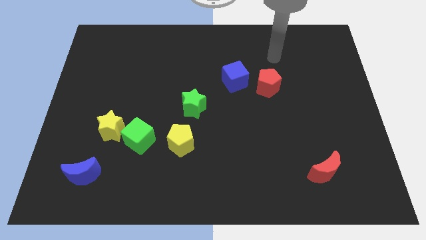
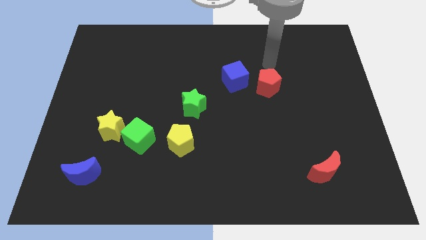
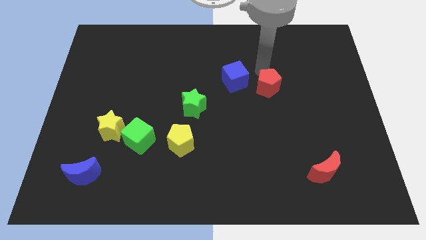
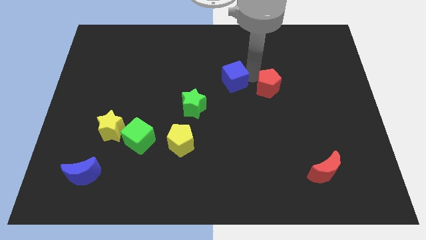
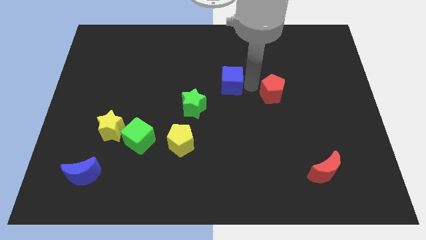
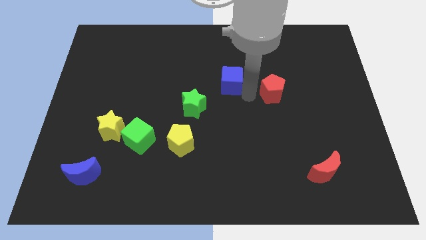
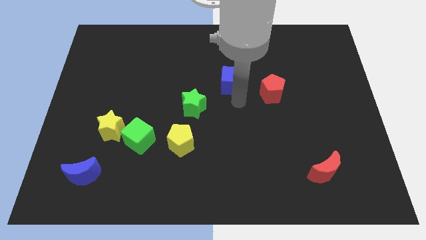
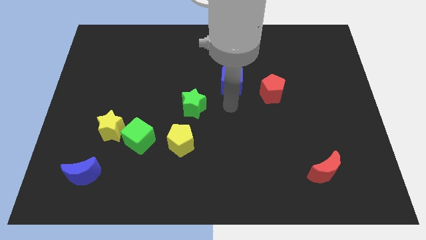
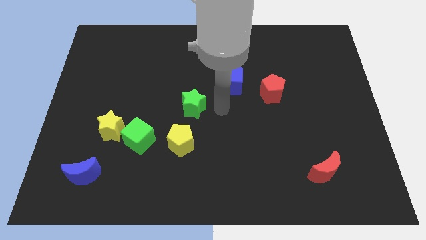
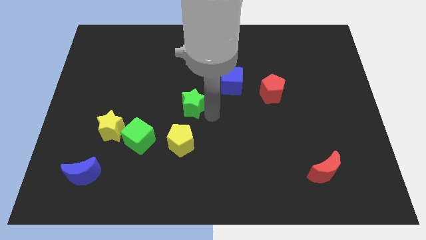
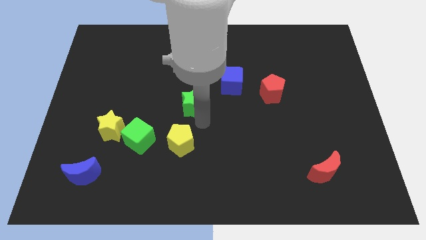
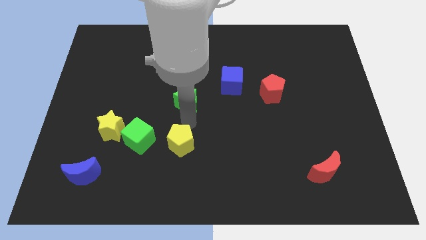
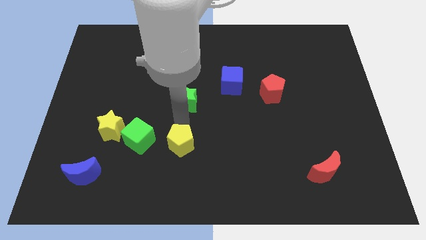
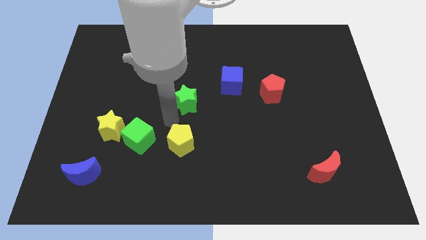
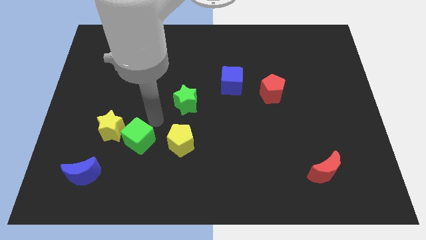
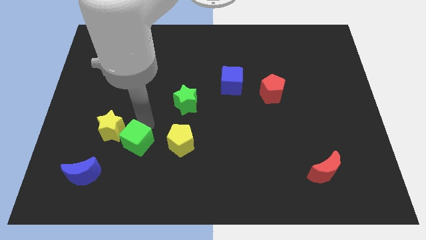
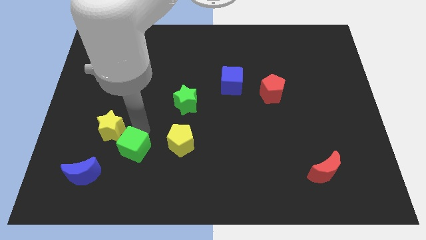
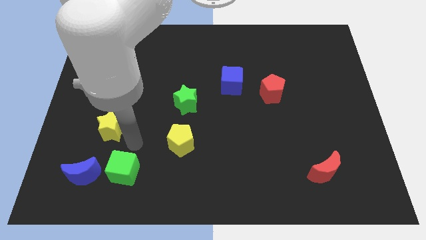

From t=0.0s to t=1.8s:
separate the yellow star from the green cube

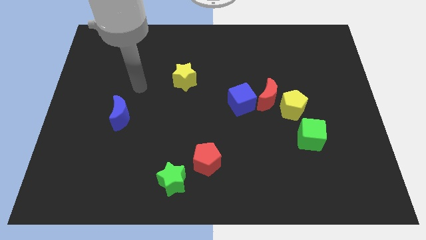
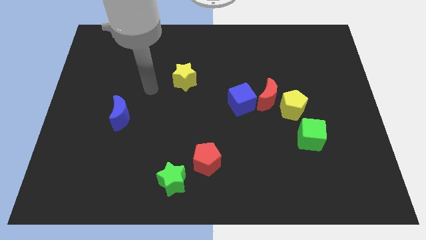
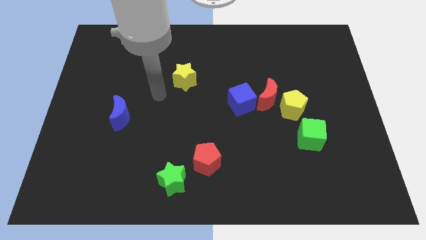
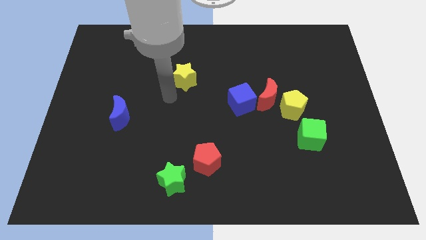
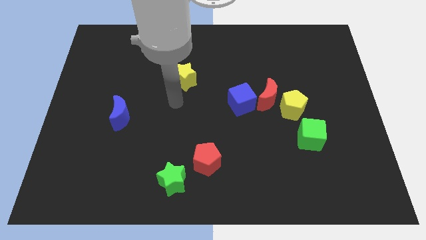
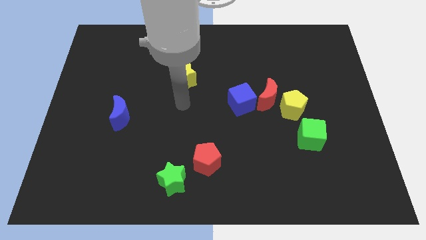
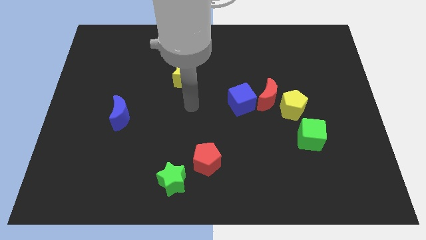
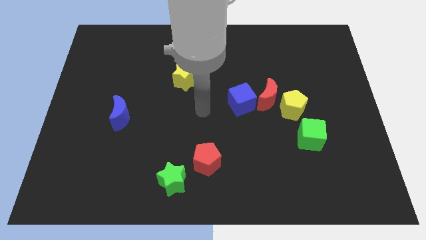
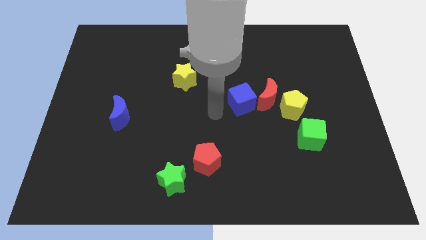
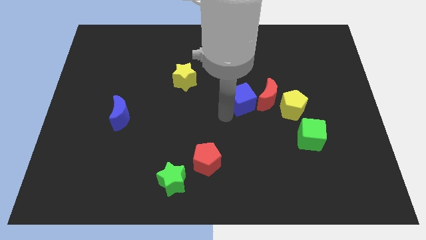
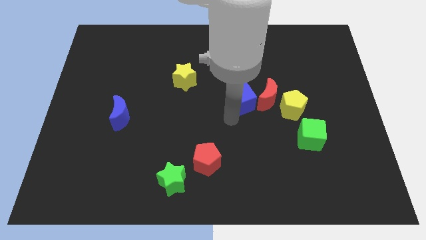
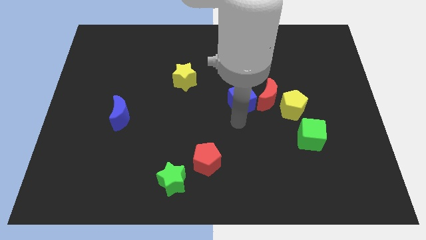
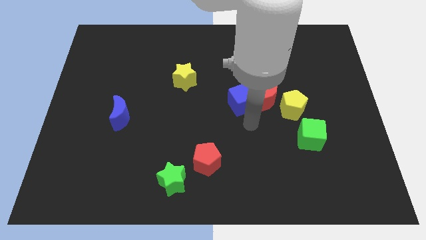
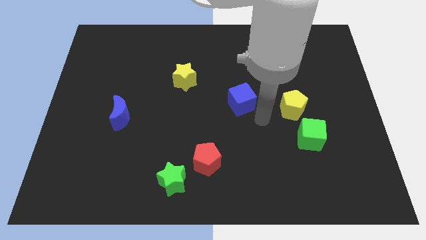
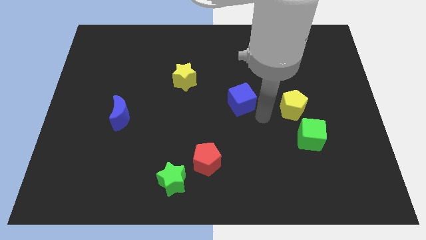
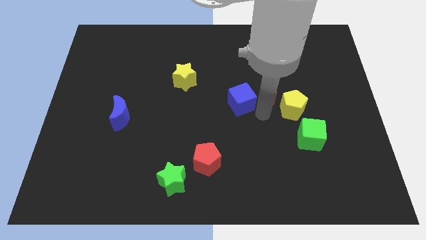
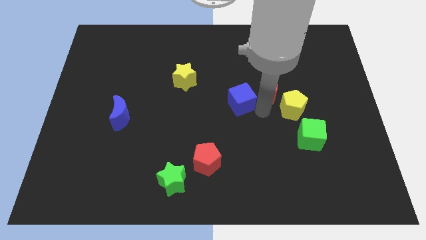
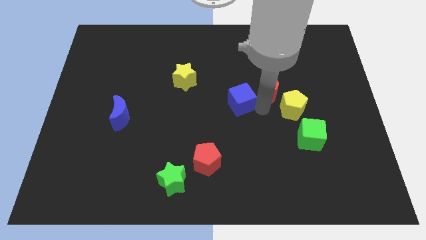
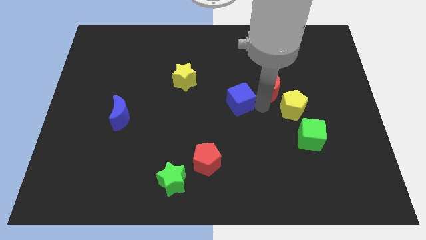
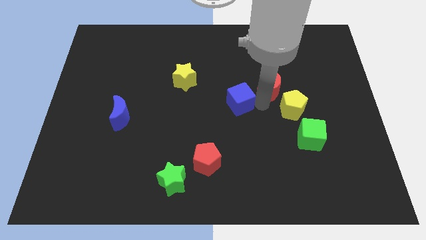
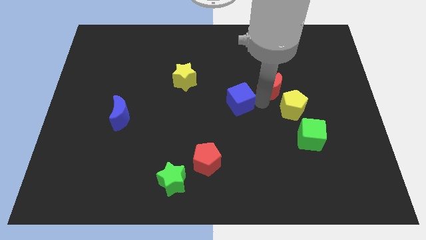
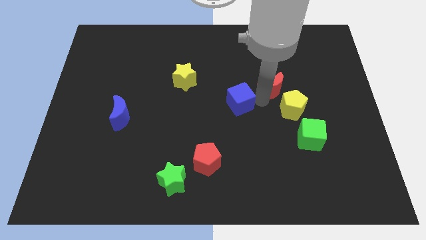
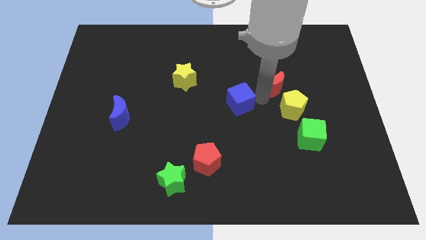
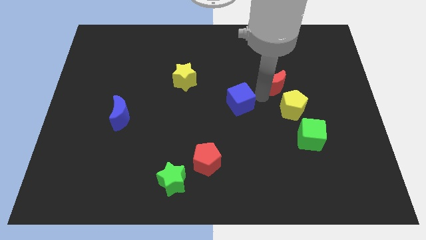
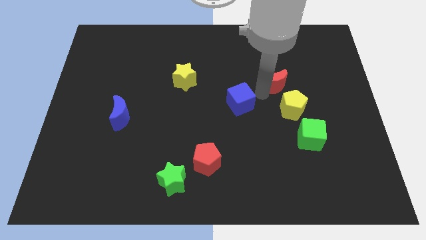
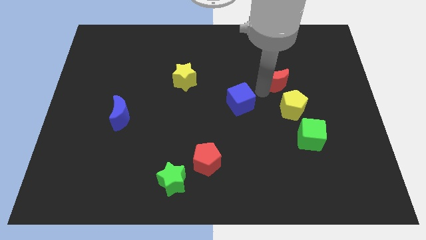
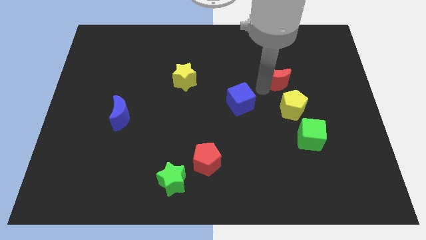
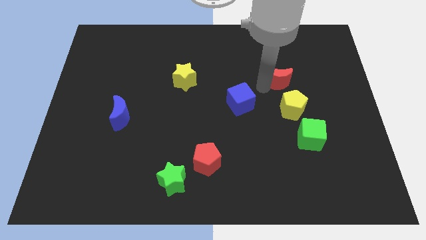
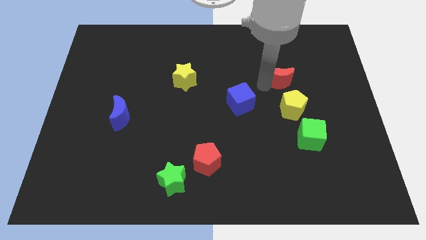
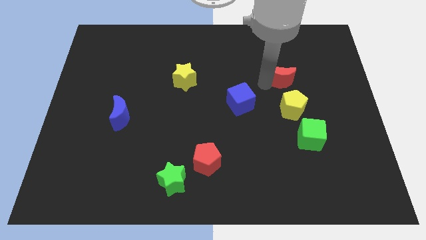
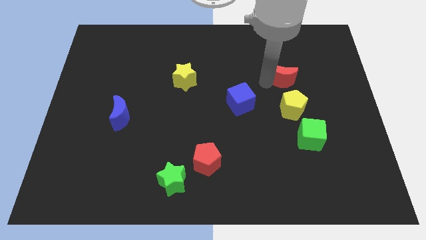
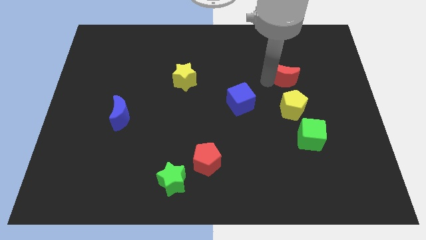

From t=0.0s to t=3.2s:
move the red moon away from the yellow pentagon and blue cube

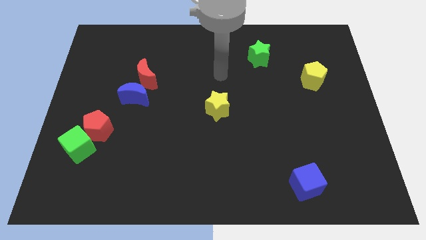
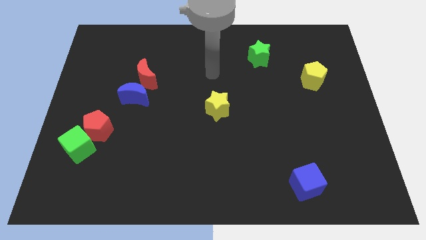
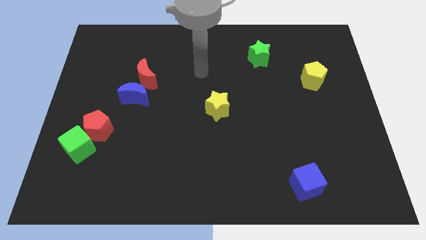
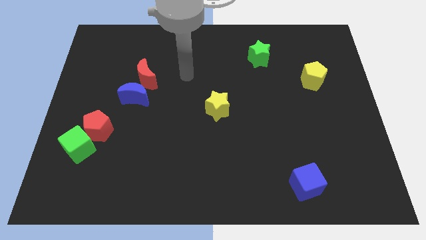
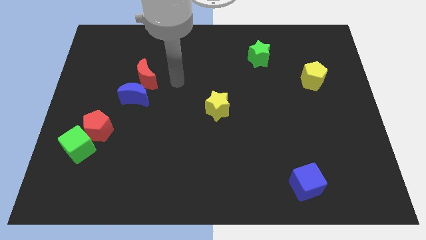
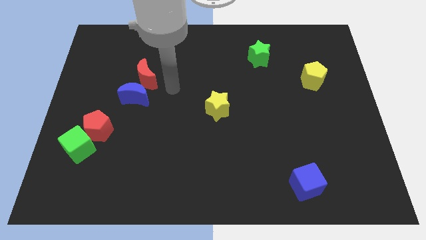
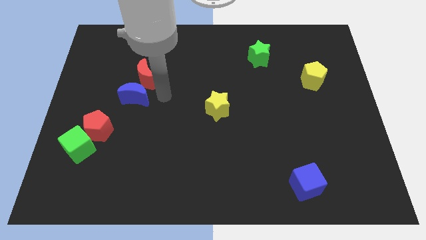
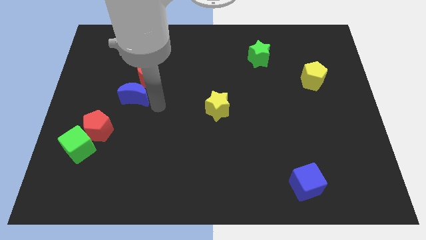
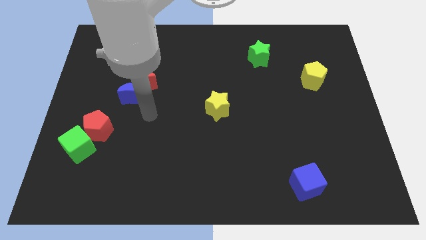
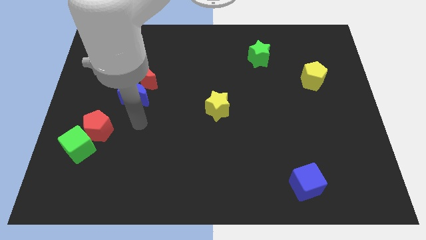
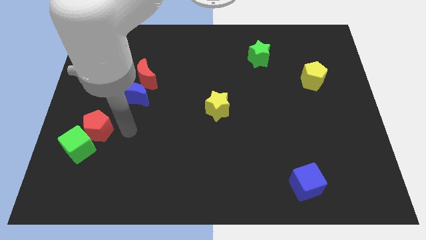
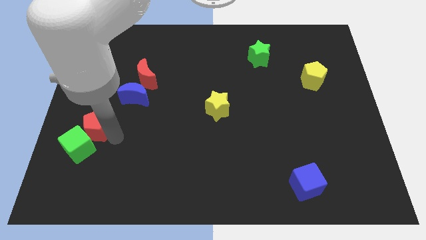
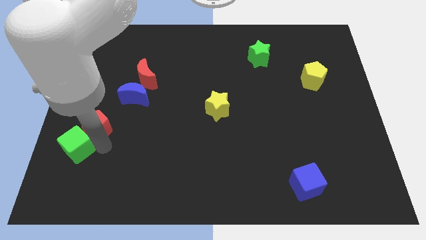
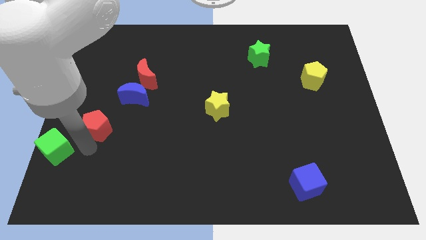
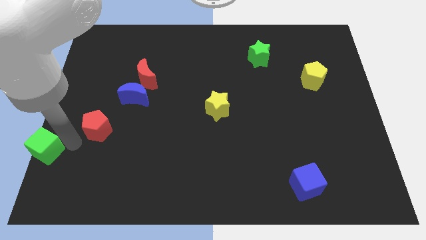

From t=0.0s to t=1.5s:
move the red pentagon away from the green cube

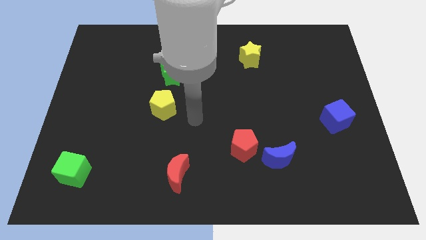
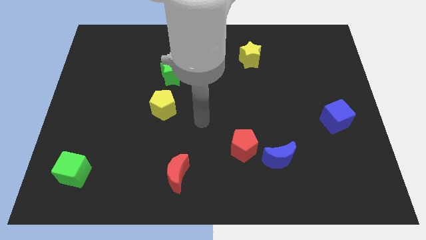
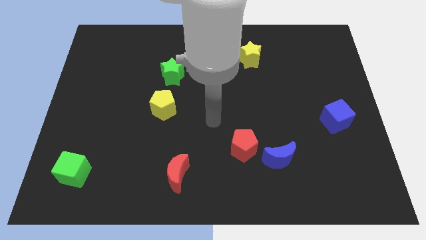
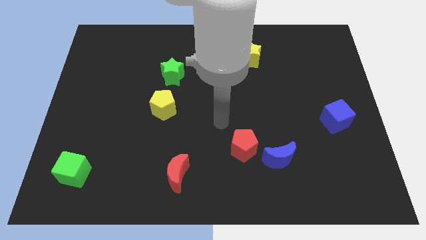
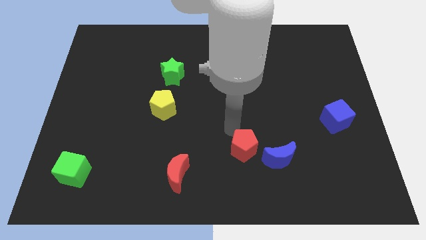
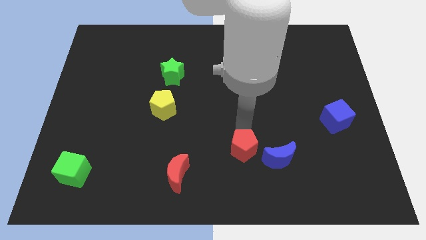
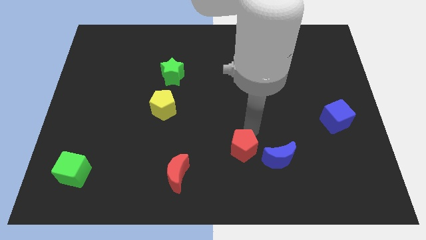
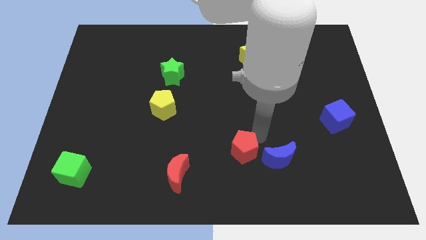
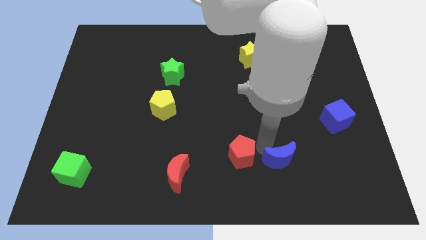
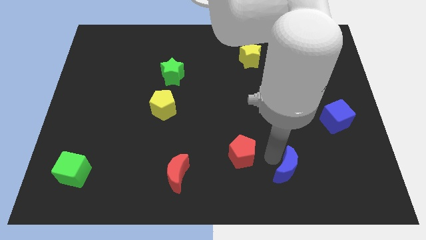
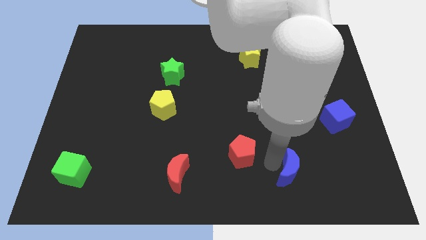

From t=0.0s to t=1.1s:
move the red pentagon away from the blue moon

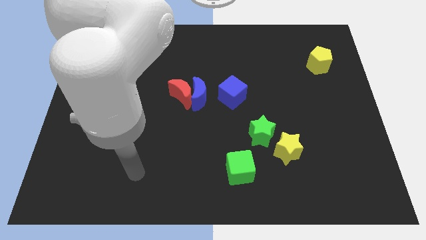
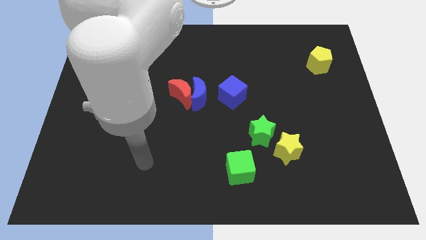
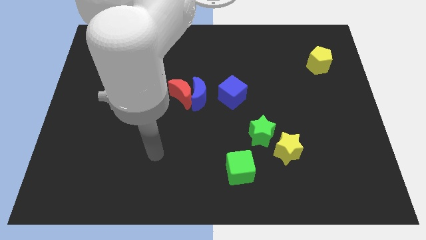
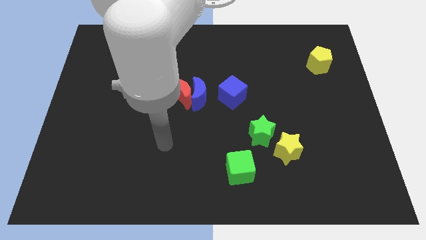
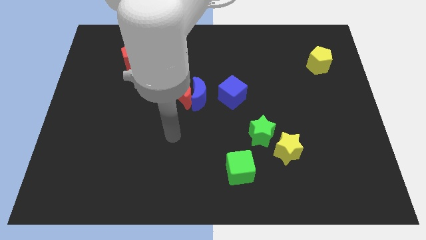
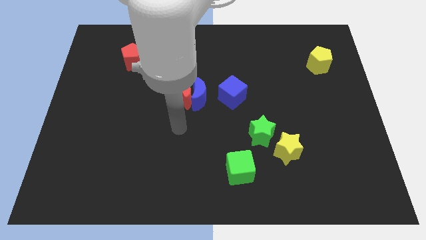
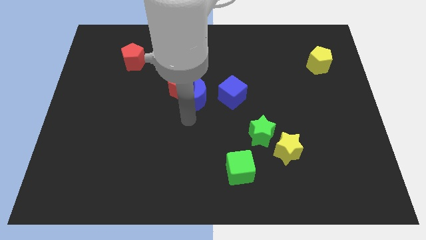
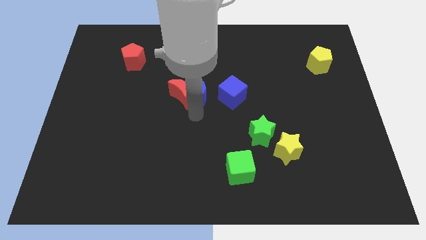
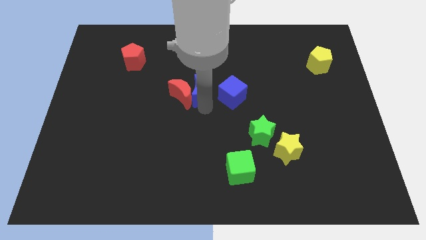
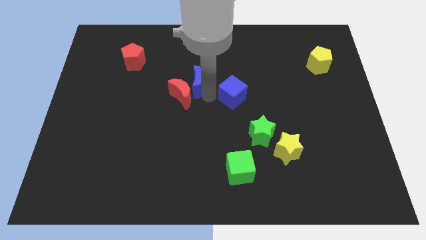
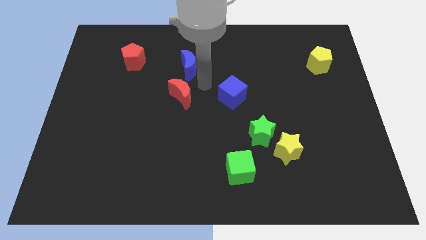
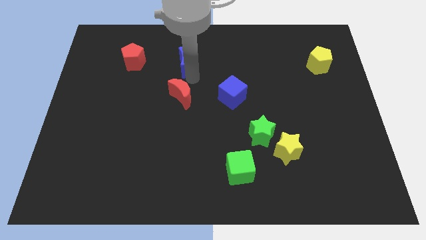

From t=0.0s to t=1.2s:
pull the red moon apart from the blue moon

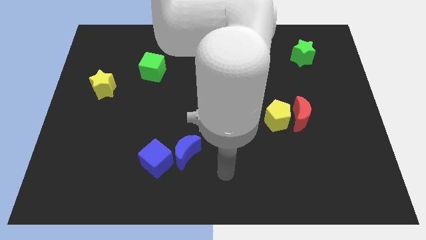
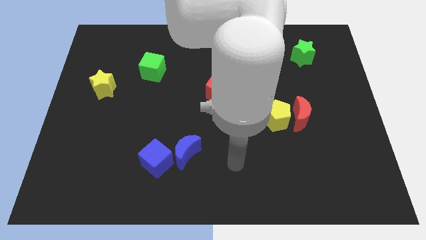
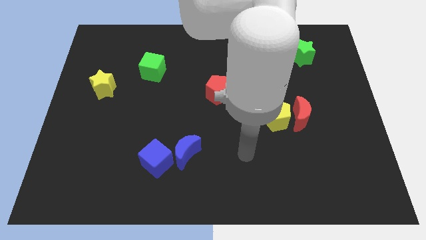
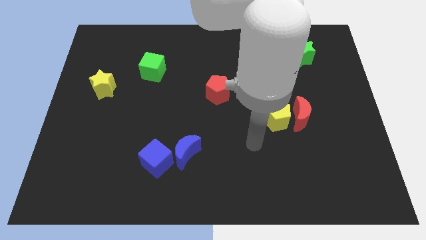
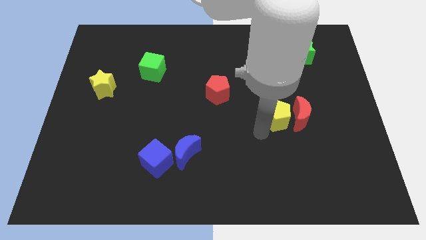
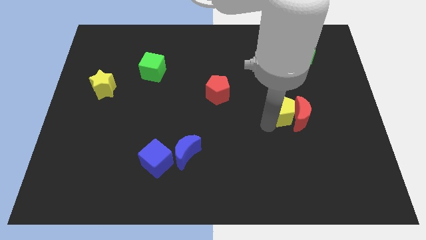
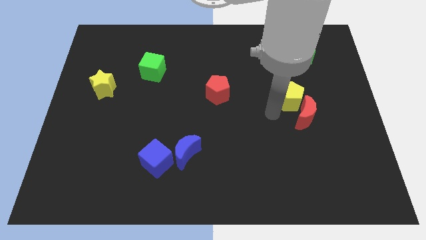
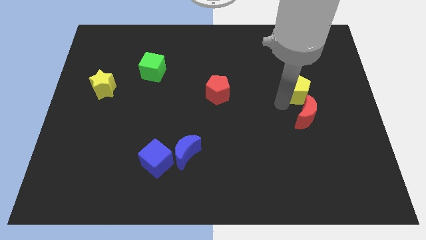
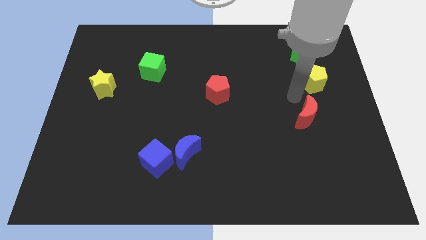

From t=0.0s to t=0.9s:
pull the red moon apart from the yellow pentagon
